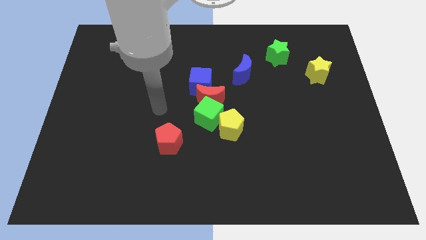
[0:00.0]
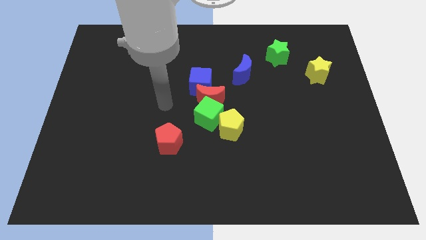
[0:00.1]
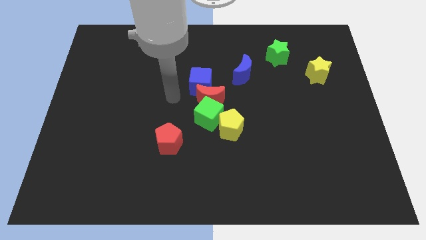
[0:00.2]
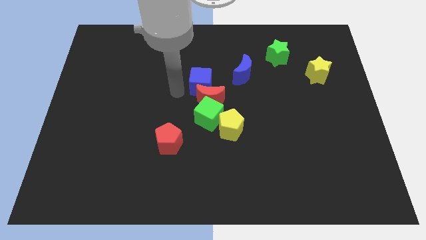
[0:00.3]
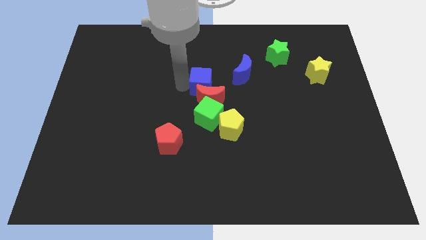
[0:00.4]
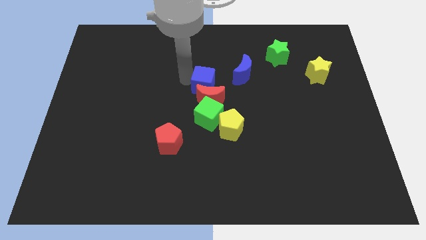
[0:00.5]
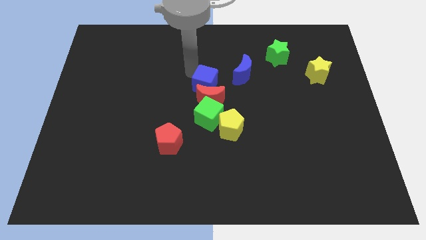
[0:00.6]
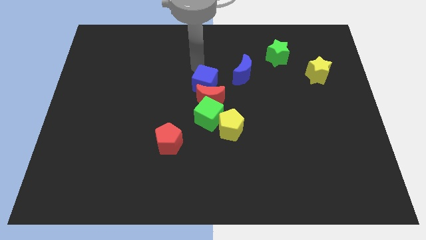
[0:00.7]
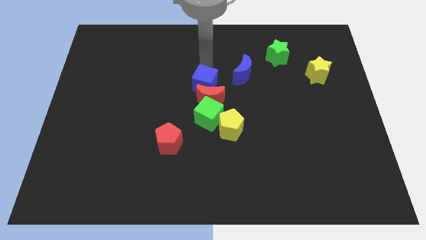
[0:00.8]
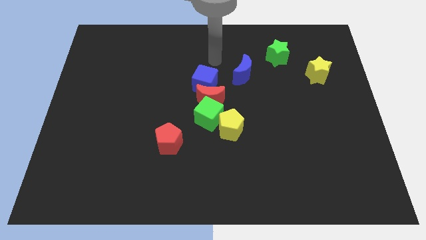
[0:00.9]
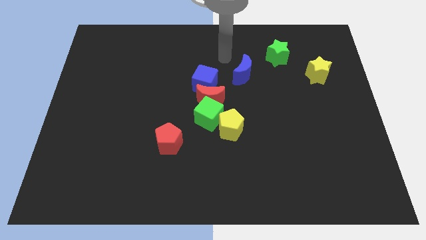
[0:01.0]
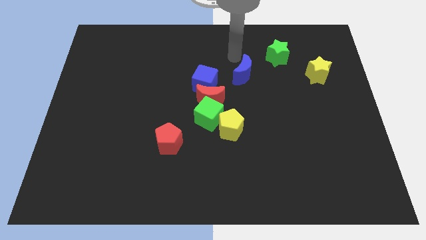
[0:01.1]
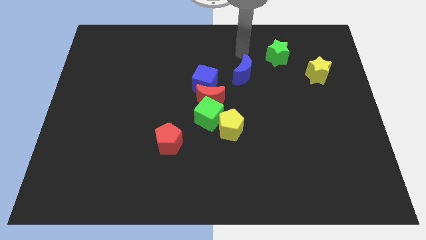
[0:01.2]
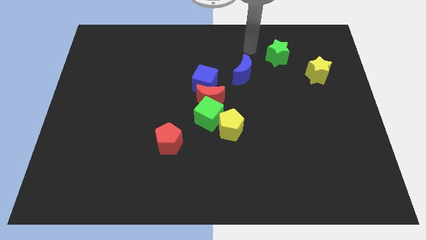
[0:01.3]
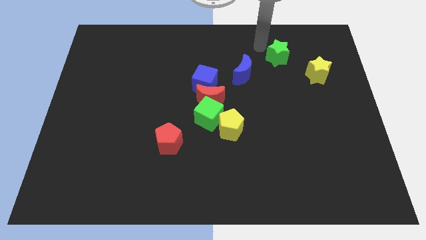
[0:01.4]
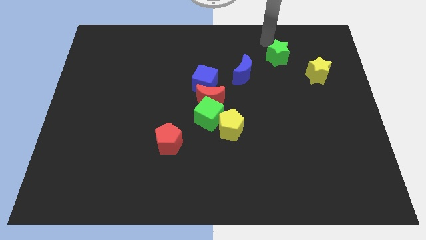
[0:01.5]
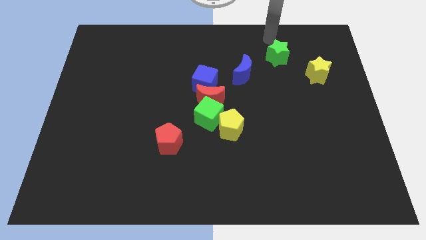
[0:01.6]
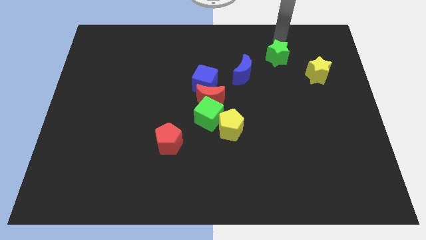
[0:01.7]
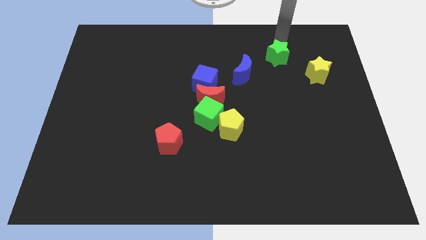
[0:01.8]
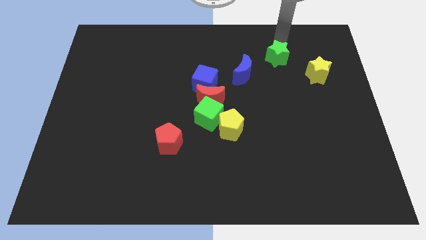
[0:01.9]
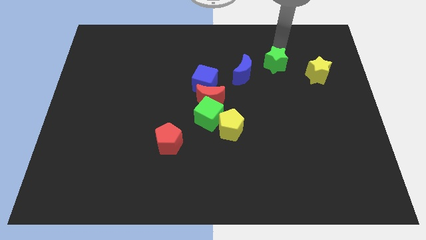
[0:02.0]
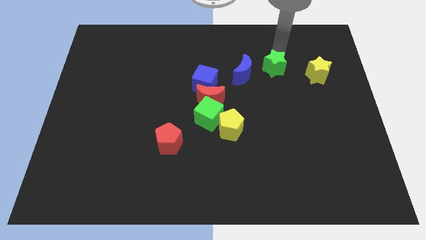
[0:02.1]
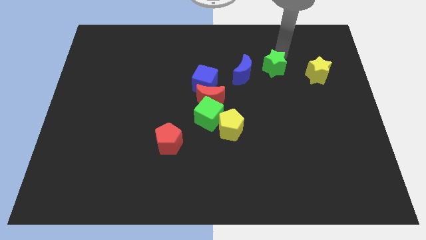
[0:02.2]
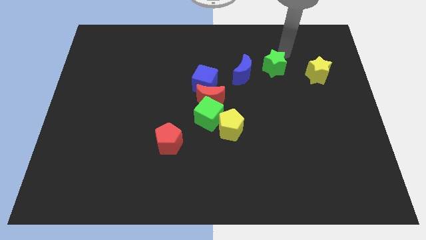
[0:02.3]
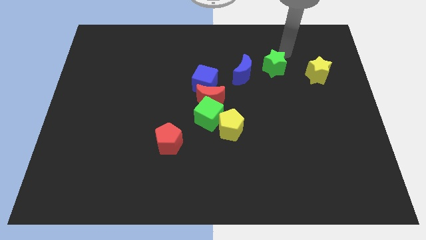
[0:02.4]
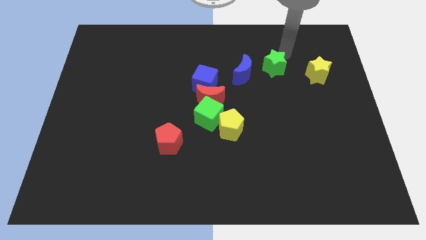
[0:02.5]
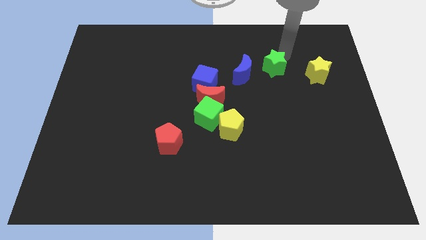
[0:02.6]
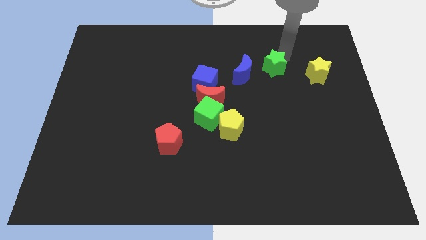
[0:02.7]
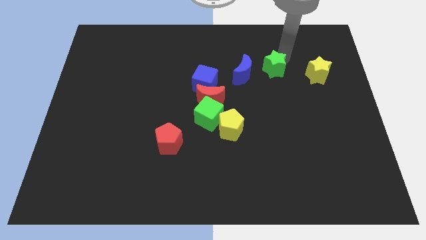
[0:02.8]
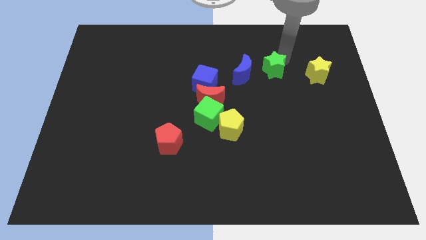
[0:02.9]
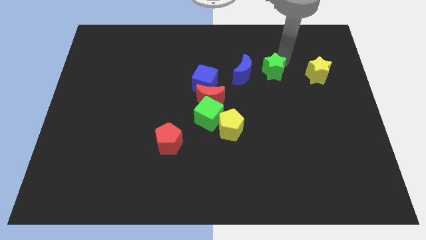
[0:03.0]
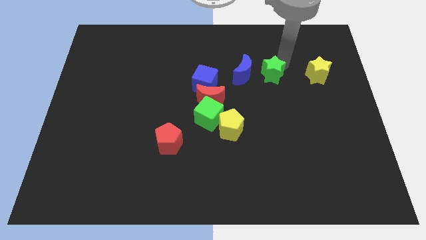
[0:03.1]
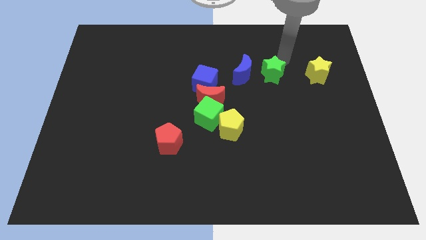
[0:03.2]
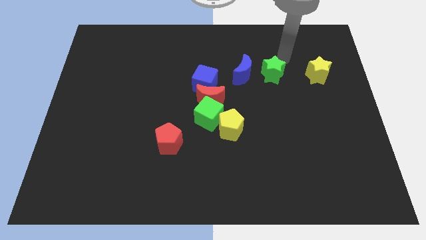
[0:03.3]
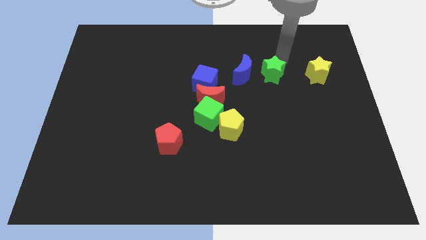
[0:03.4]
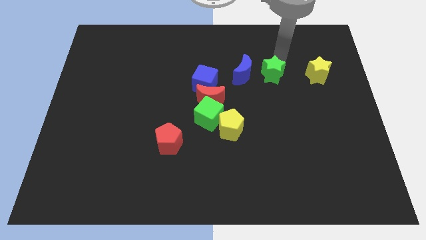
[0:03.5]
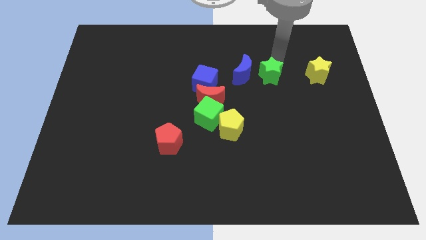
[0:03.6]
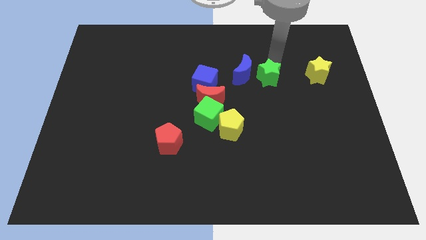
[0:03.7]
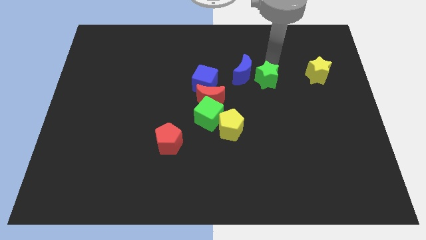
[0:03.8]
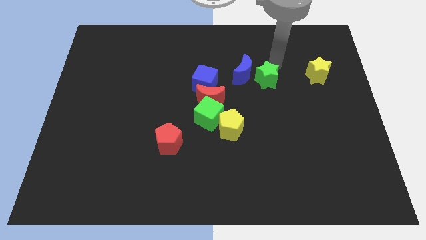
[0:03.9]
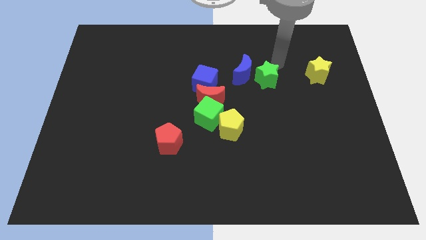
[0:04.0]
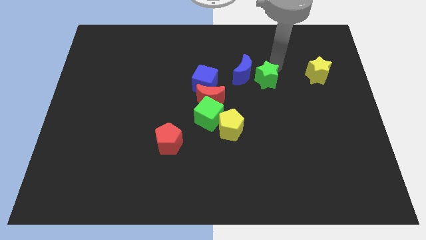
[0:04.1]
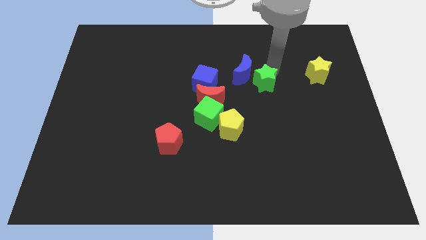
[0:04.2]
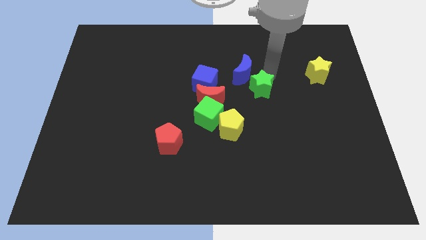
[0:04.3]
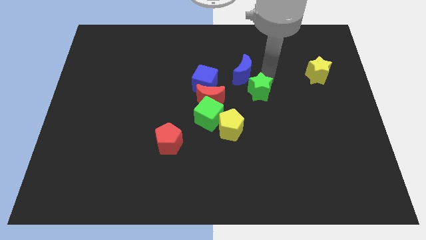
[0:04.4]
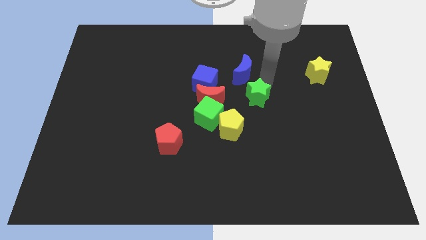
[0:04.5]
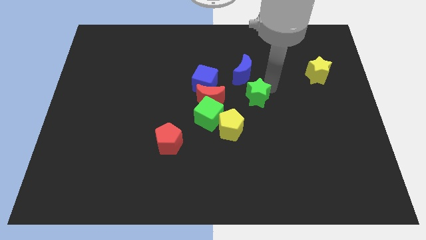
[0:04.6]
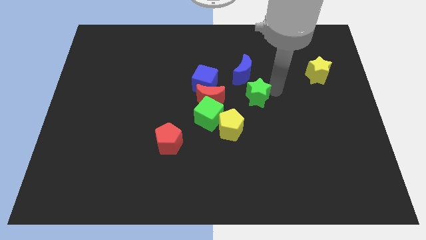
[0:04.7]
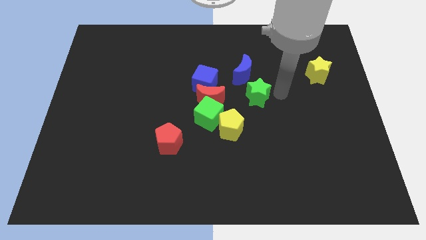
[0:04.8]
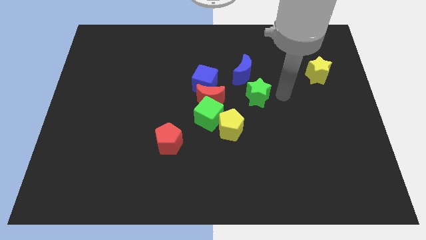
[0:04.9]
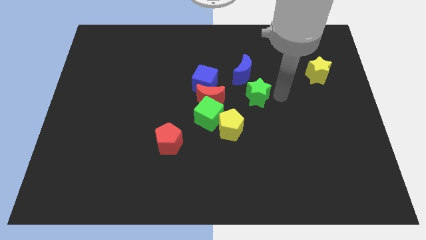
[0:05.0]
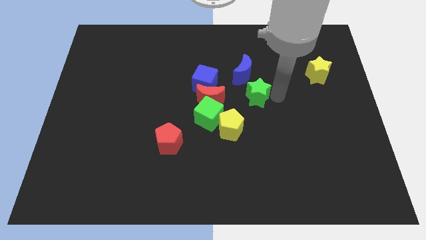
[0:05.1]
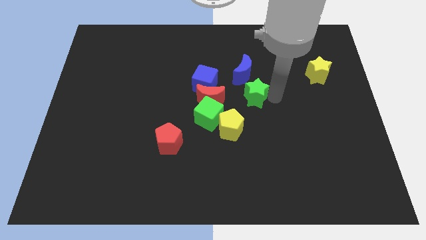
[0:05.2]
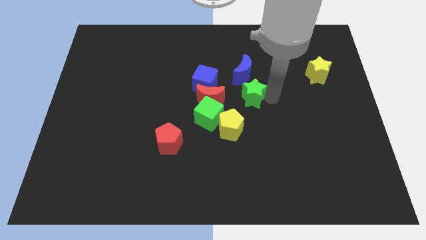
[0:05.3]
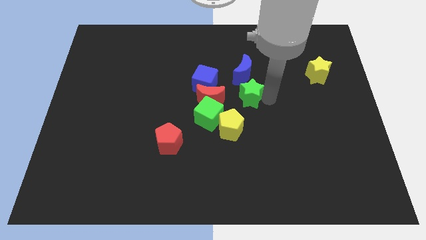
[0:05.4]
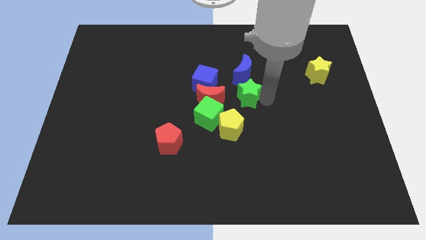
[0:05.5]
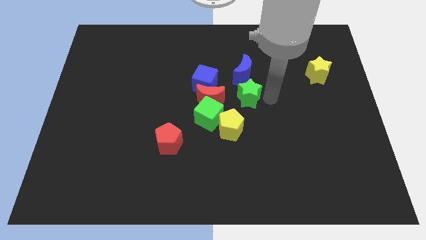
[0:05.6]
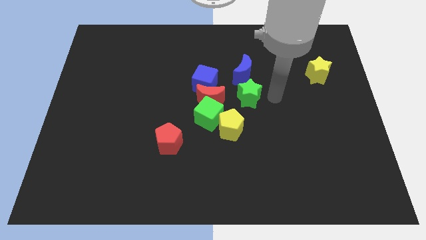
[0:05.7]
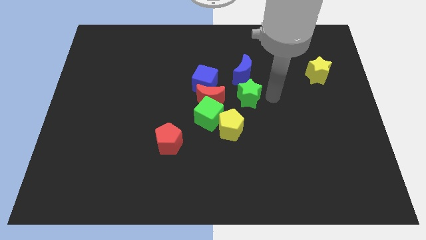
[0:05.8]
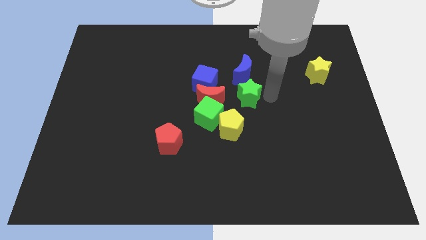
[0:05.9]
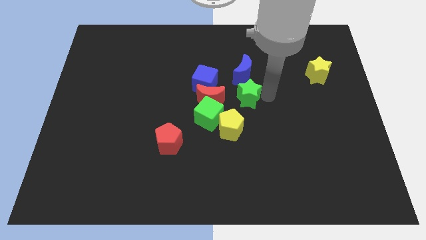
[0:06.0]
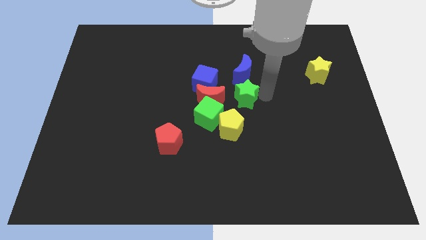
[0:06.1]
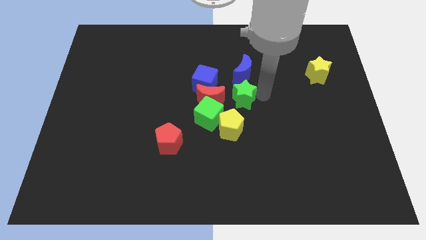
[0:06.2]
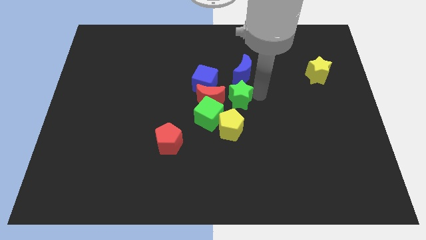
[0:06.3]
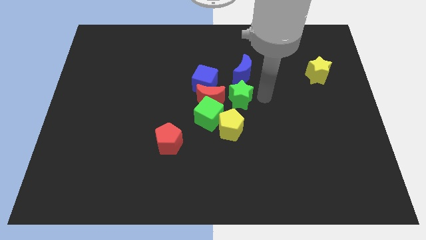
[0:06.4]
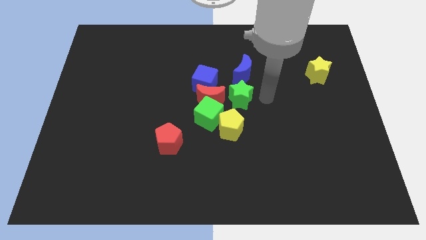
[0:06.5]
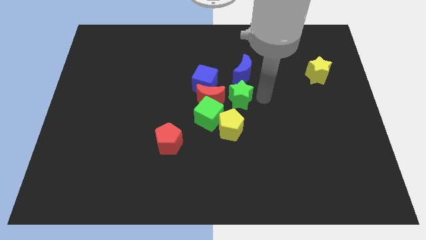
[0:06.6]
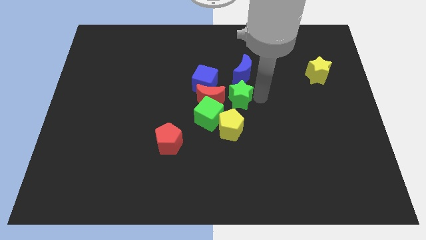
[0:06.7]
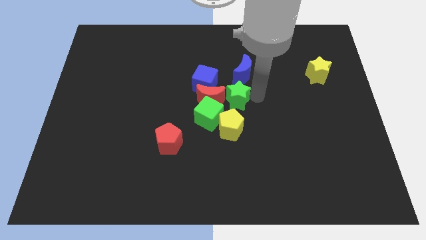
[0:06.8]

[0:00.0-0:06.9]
slide the green star towards the red moon

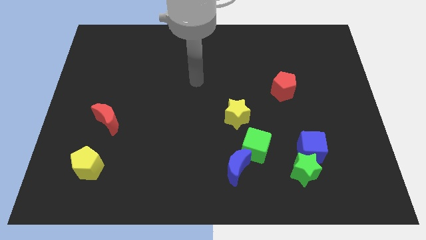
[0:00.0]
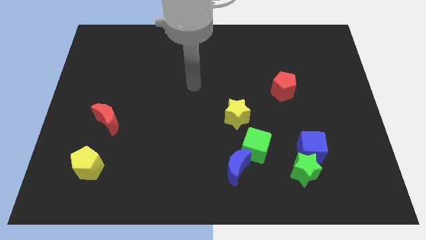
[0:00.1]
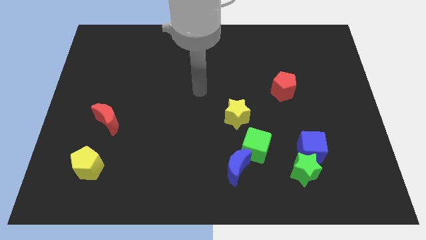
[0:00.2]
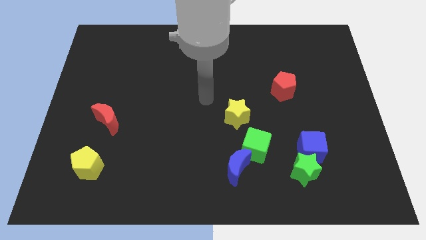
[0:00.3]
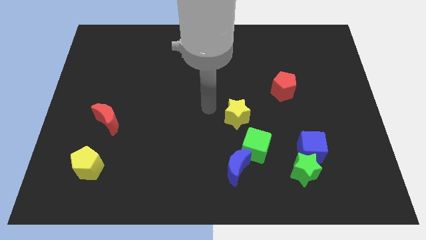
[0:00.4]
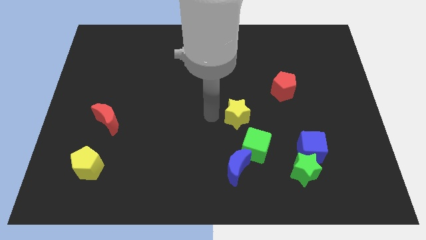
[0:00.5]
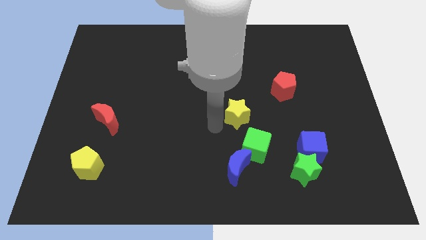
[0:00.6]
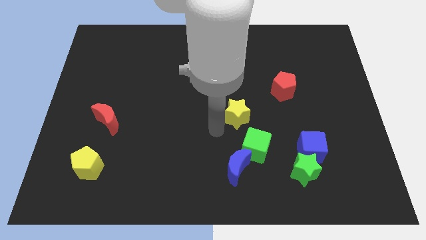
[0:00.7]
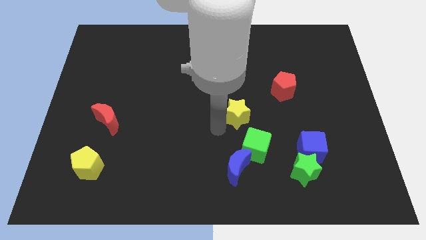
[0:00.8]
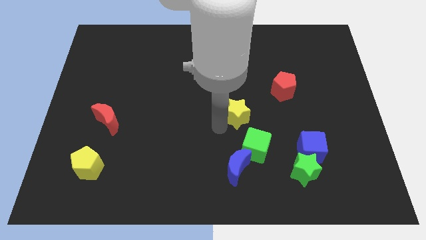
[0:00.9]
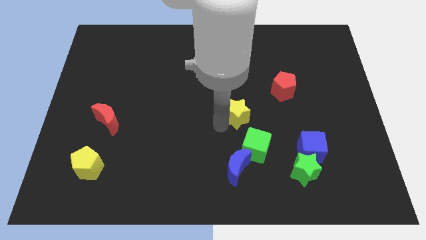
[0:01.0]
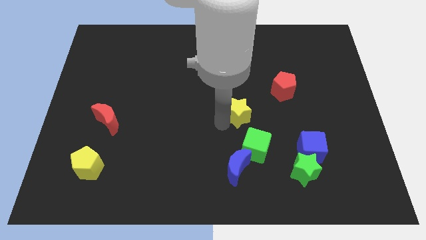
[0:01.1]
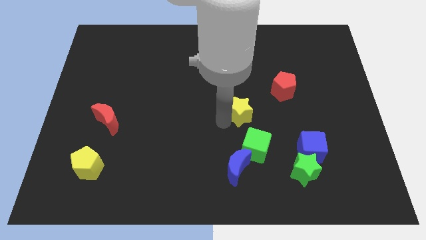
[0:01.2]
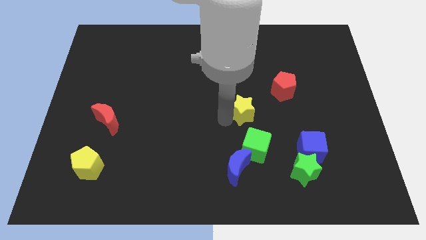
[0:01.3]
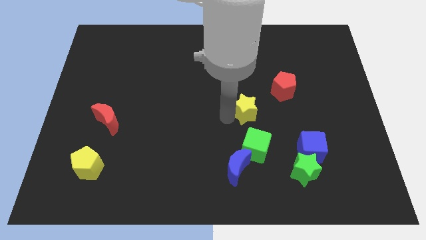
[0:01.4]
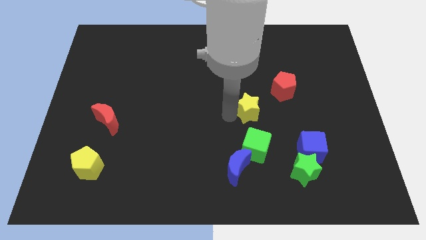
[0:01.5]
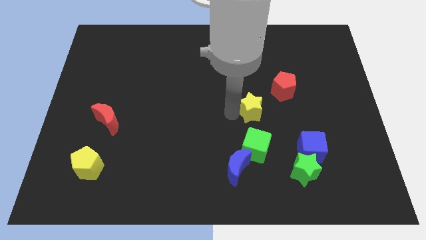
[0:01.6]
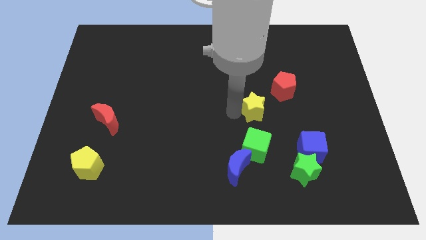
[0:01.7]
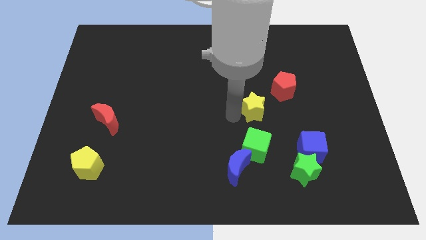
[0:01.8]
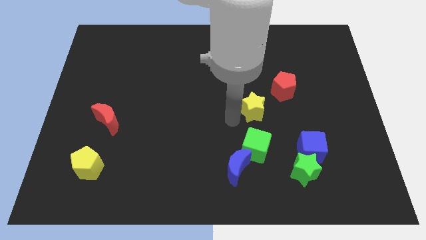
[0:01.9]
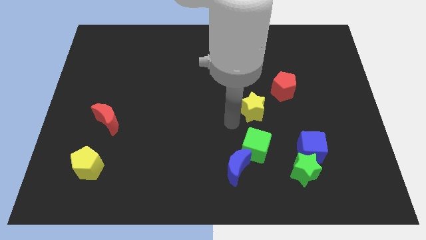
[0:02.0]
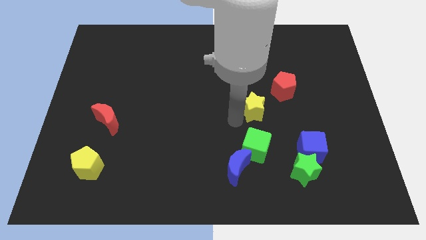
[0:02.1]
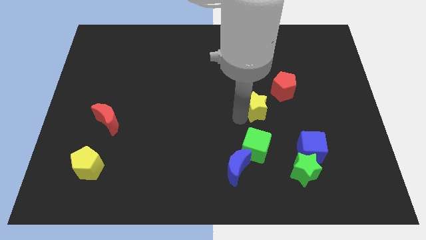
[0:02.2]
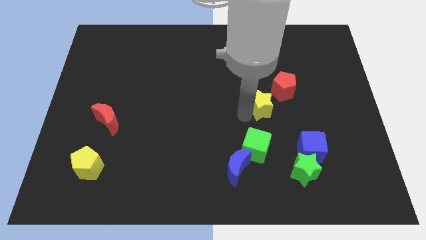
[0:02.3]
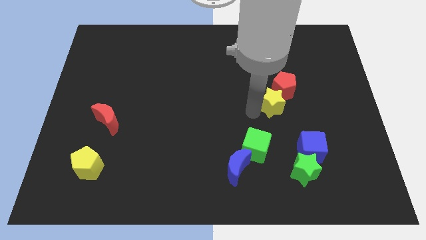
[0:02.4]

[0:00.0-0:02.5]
put the yellow star next to the red pentagon
